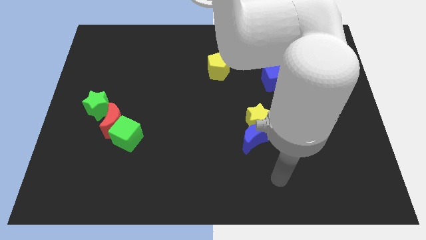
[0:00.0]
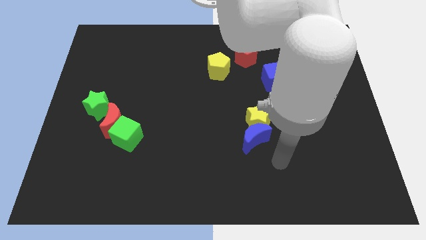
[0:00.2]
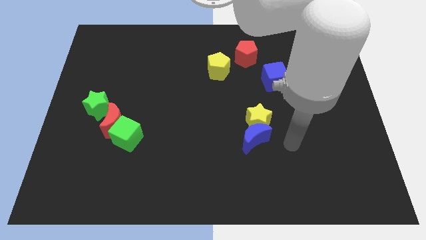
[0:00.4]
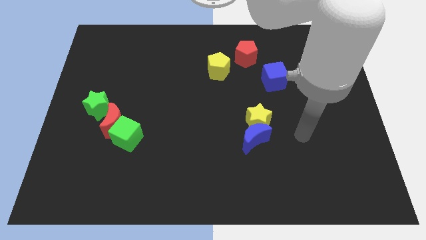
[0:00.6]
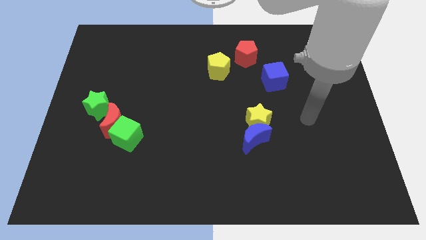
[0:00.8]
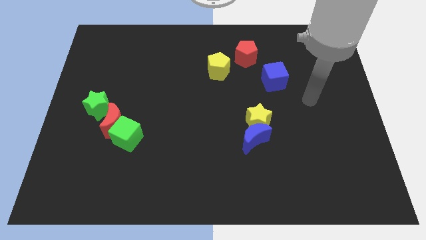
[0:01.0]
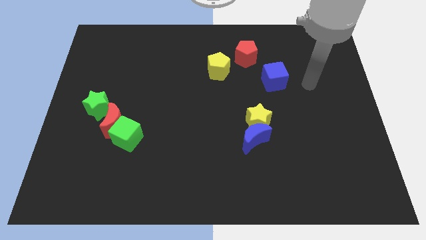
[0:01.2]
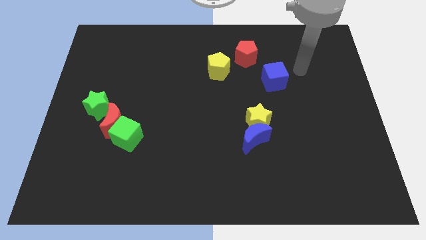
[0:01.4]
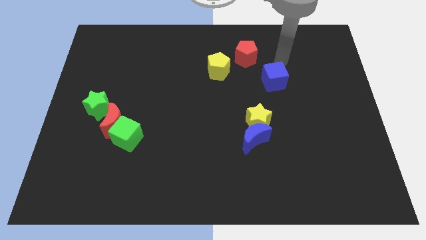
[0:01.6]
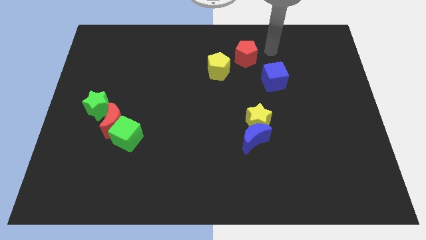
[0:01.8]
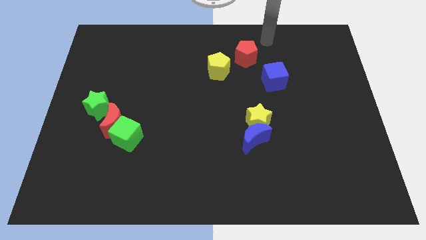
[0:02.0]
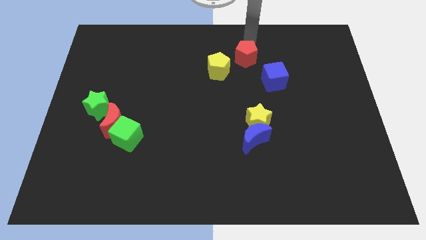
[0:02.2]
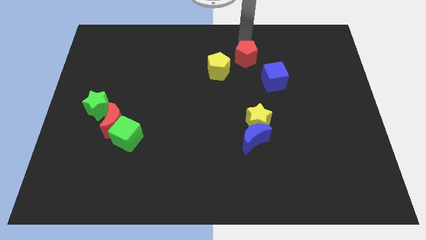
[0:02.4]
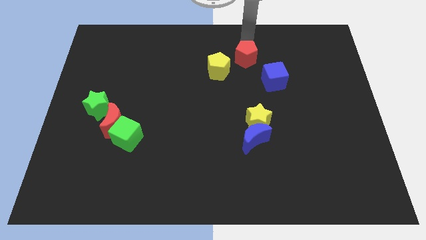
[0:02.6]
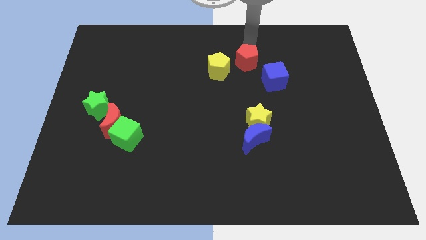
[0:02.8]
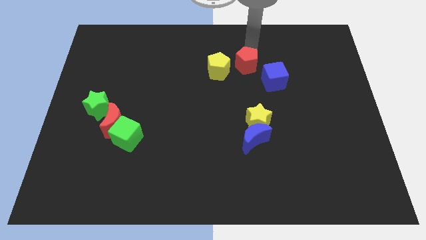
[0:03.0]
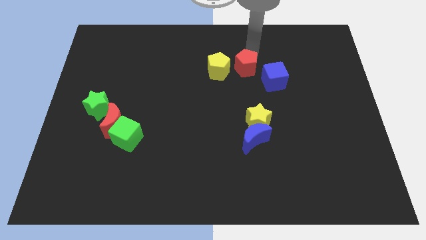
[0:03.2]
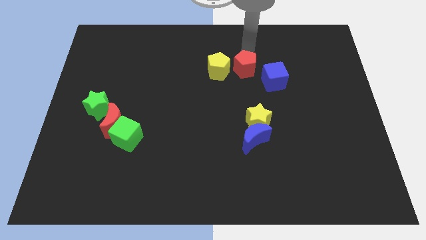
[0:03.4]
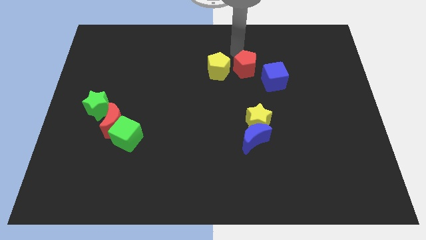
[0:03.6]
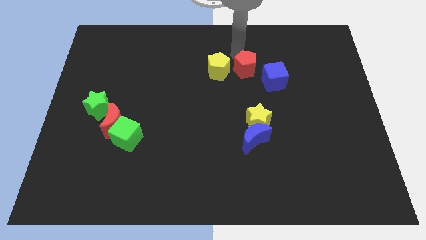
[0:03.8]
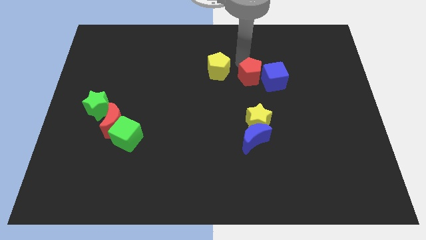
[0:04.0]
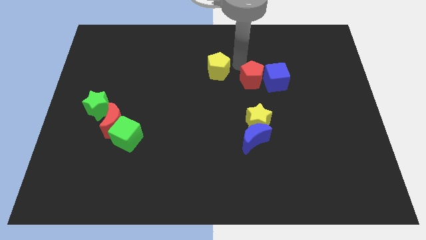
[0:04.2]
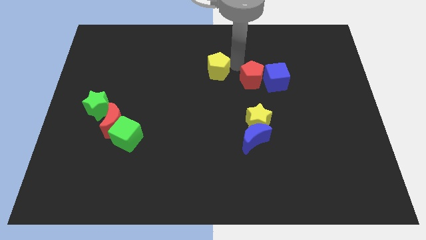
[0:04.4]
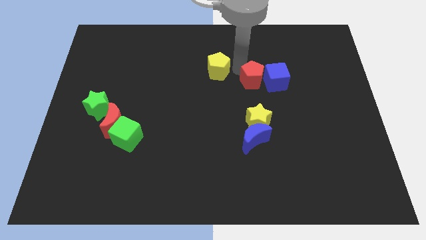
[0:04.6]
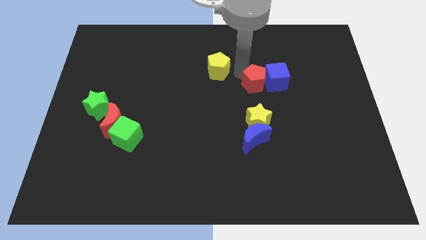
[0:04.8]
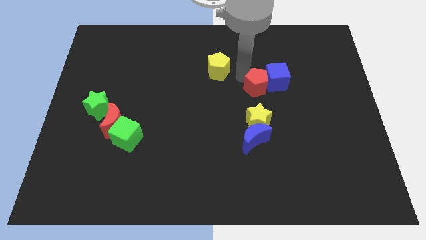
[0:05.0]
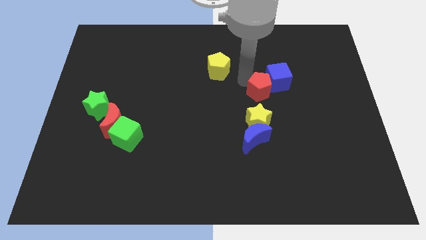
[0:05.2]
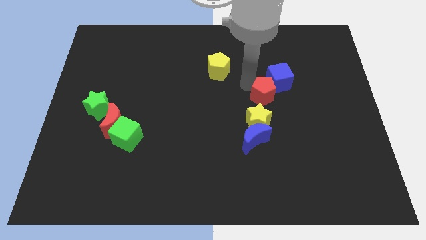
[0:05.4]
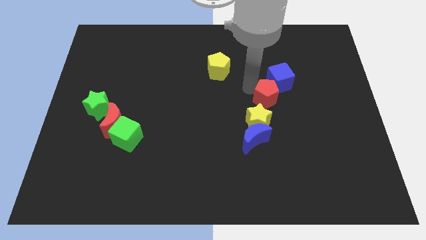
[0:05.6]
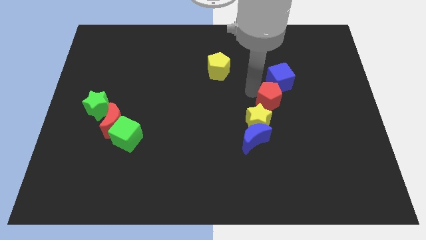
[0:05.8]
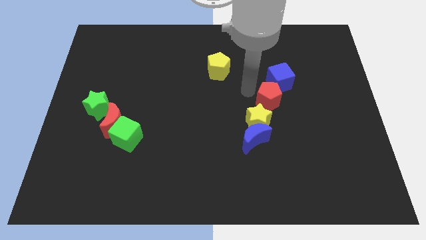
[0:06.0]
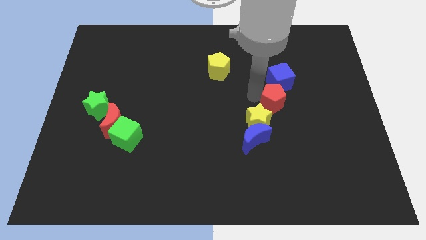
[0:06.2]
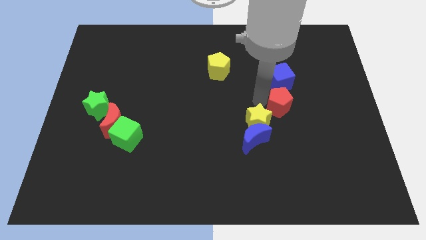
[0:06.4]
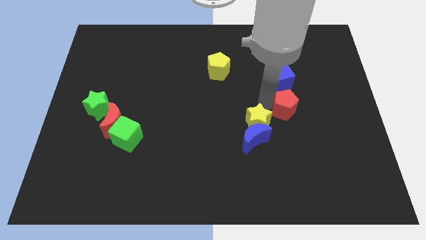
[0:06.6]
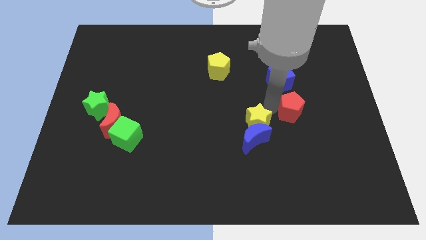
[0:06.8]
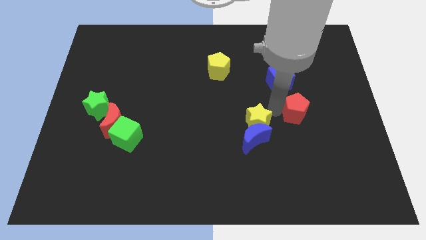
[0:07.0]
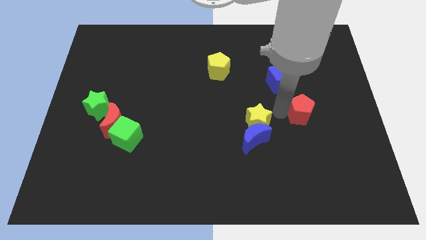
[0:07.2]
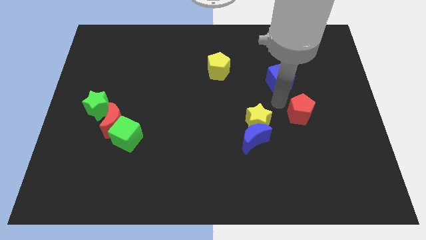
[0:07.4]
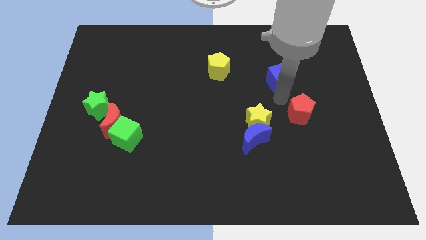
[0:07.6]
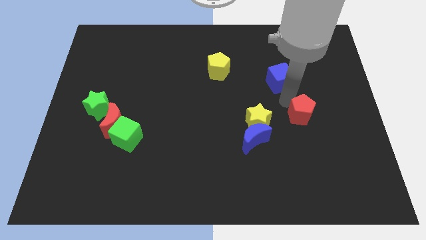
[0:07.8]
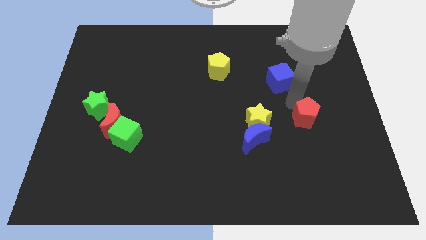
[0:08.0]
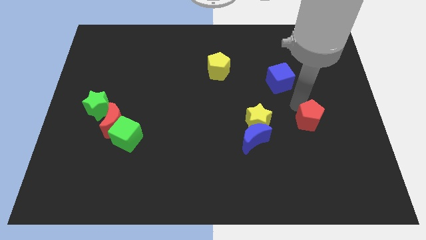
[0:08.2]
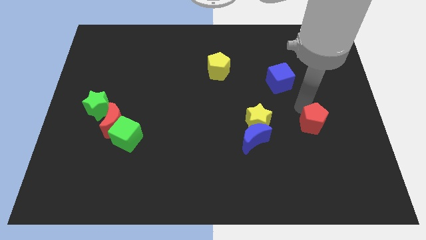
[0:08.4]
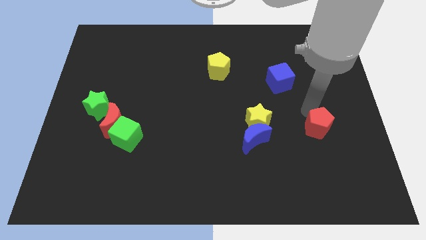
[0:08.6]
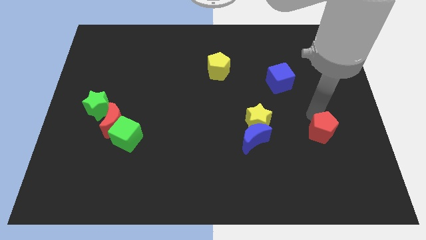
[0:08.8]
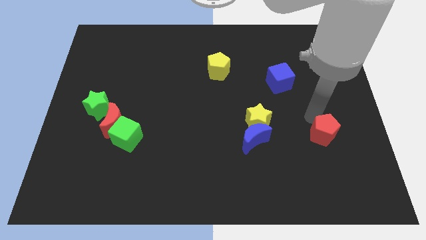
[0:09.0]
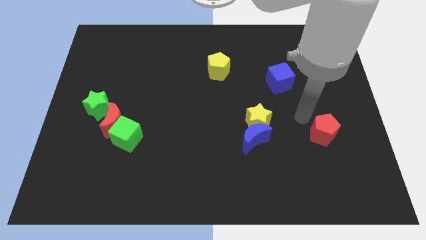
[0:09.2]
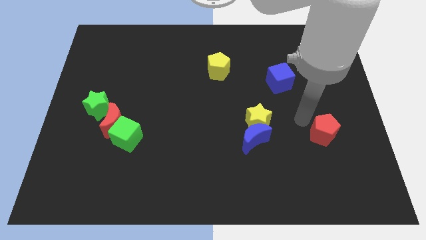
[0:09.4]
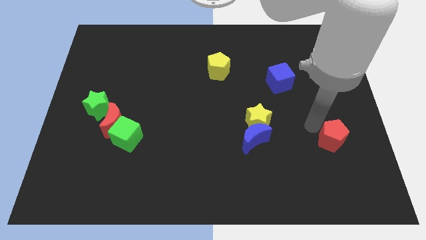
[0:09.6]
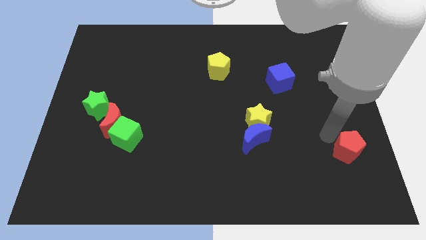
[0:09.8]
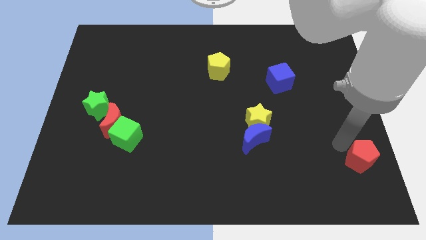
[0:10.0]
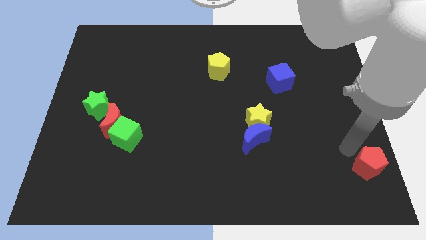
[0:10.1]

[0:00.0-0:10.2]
put the red pentagon to the lower right corner

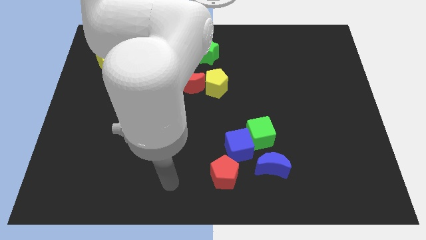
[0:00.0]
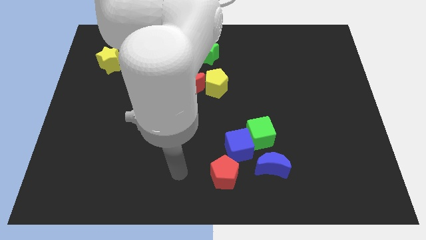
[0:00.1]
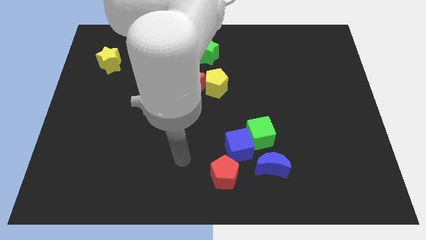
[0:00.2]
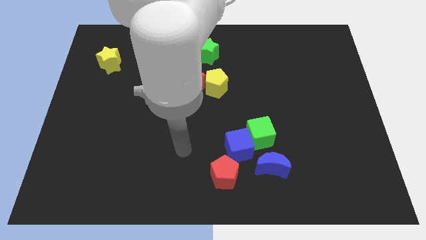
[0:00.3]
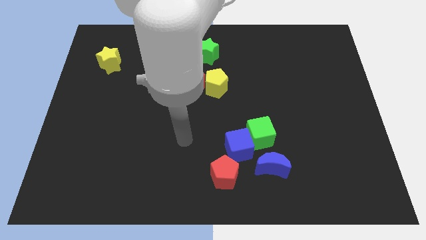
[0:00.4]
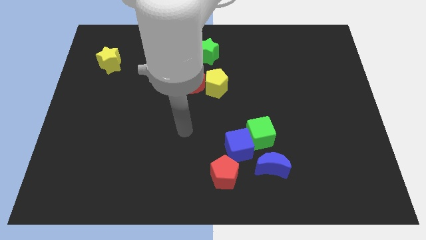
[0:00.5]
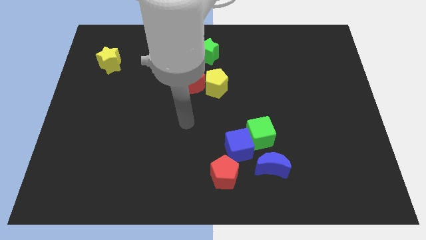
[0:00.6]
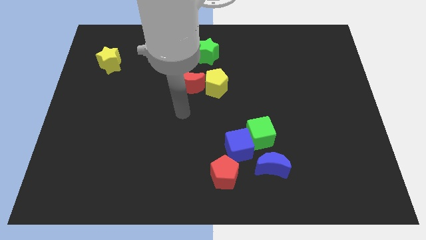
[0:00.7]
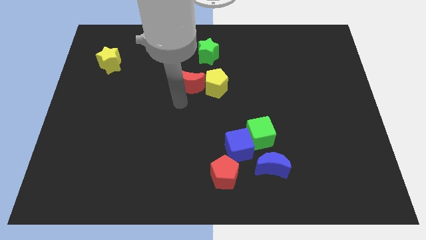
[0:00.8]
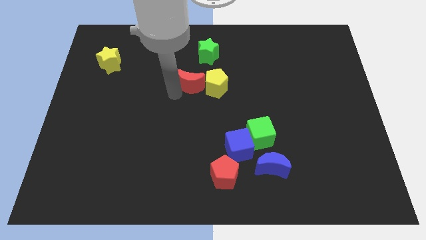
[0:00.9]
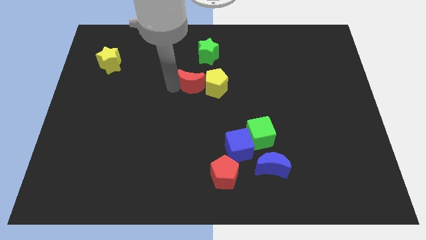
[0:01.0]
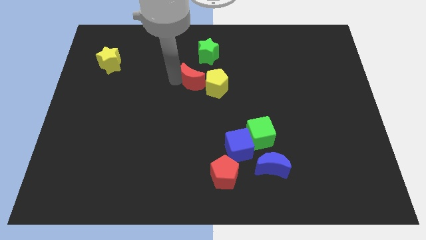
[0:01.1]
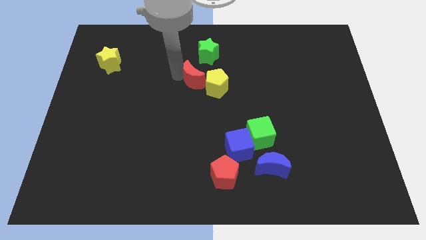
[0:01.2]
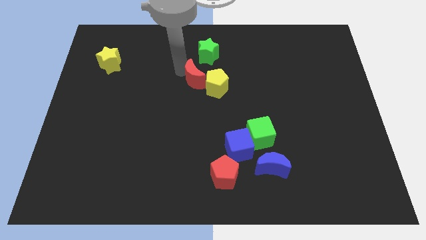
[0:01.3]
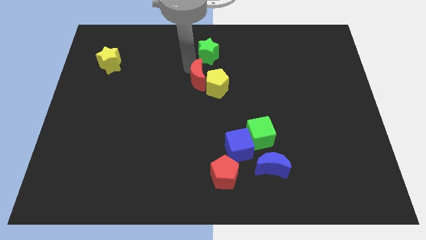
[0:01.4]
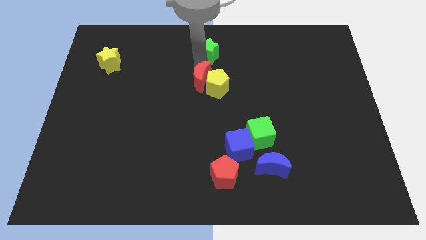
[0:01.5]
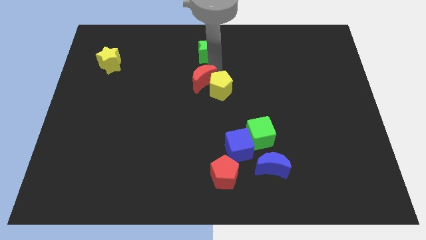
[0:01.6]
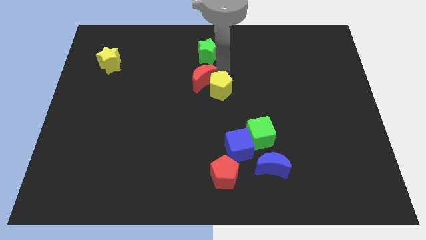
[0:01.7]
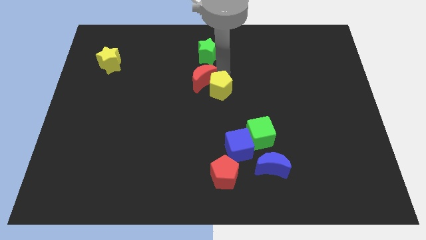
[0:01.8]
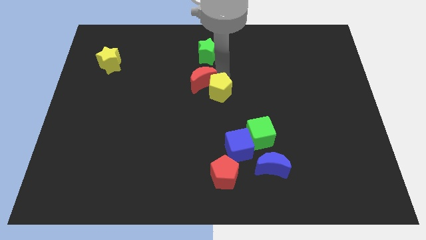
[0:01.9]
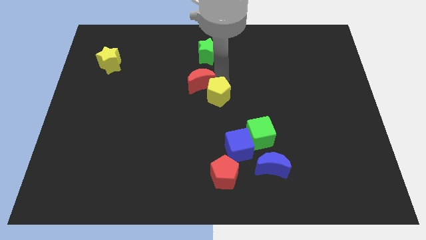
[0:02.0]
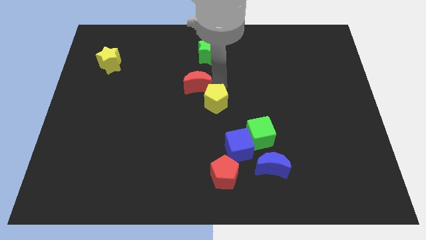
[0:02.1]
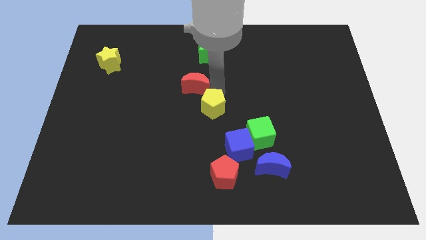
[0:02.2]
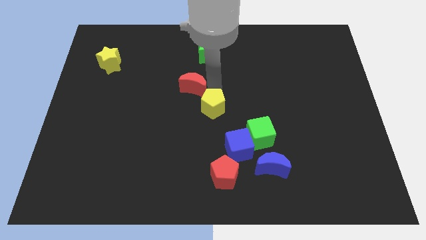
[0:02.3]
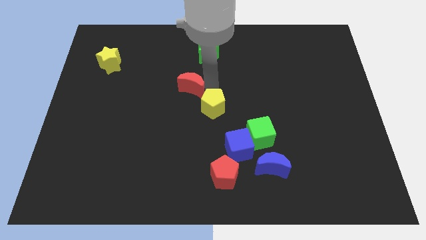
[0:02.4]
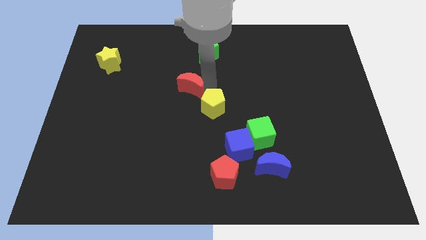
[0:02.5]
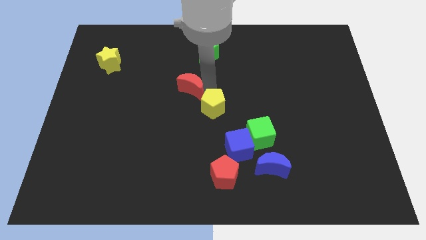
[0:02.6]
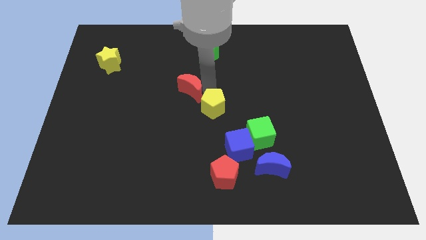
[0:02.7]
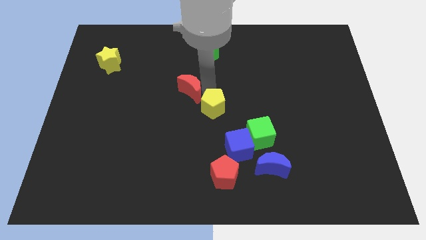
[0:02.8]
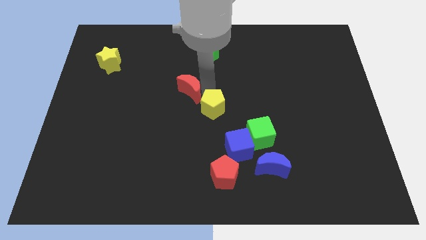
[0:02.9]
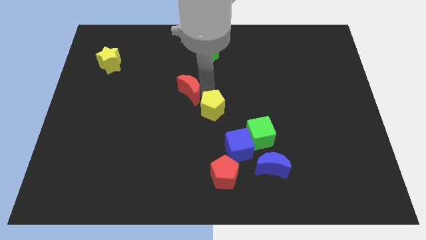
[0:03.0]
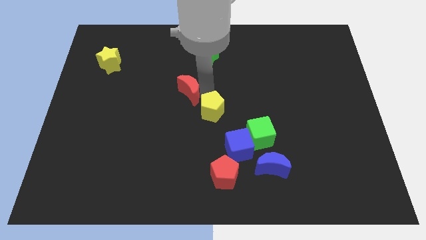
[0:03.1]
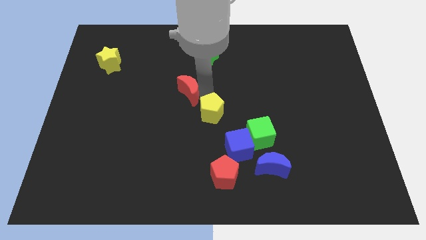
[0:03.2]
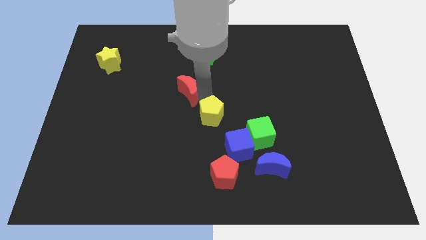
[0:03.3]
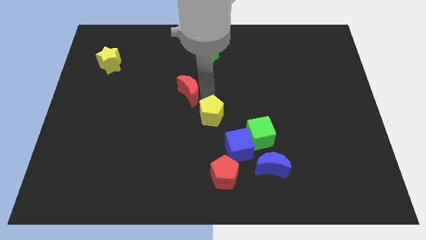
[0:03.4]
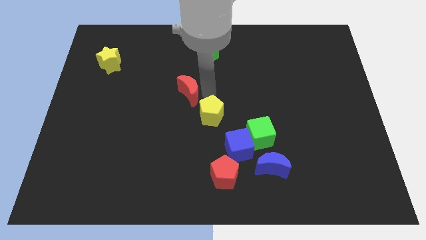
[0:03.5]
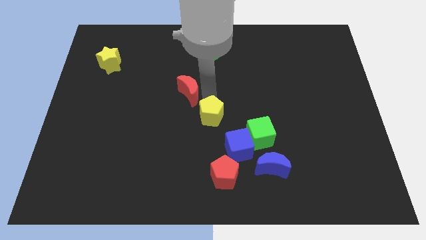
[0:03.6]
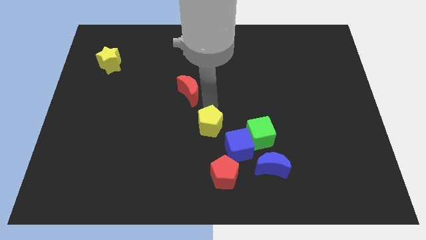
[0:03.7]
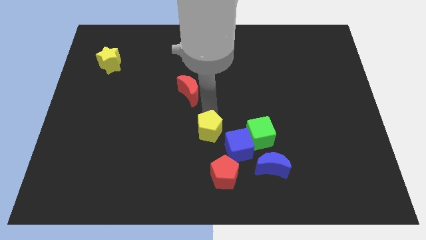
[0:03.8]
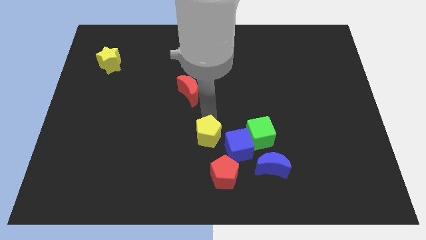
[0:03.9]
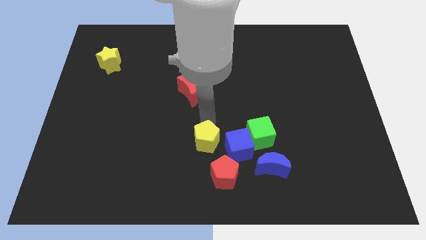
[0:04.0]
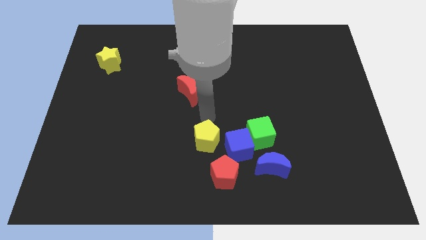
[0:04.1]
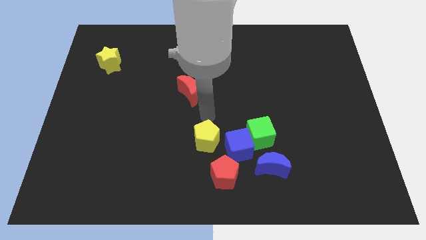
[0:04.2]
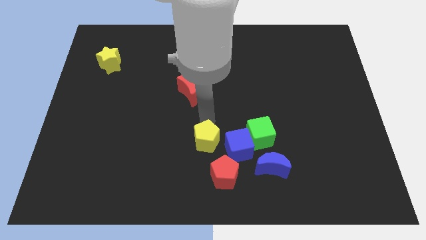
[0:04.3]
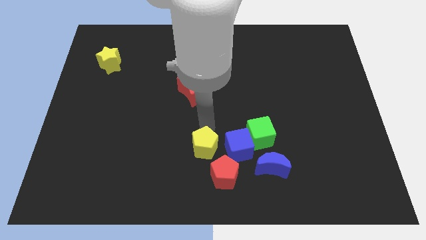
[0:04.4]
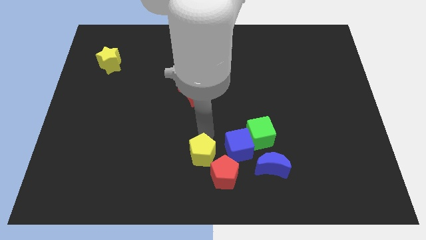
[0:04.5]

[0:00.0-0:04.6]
move the yellow pentagon to the bottom side
